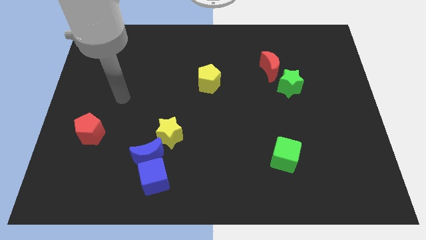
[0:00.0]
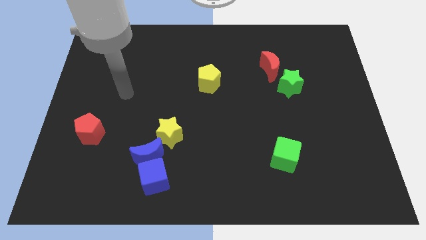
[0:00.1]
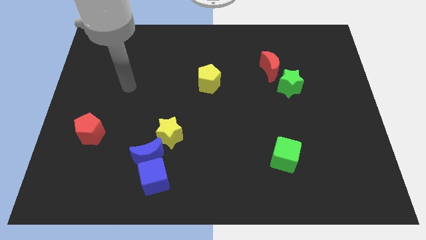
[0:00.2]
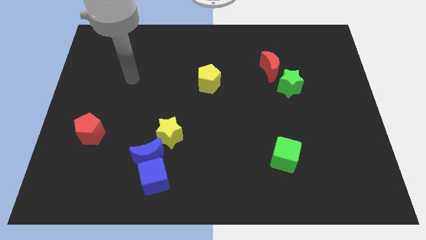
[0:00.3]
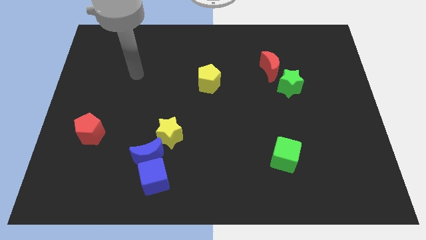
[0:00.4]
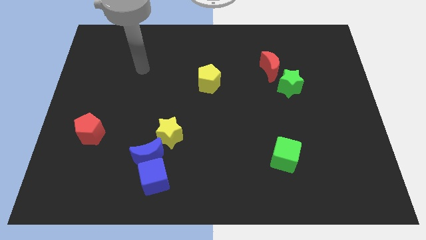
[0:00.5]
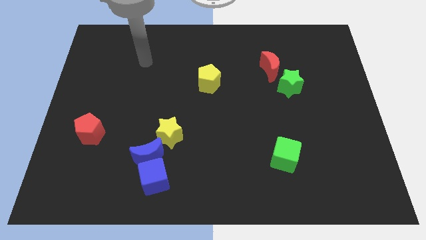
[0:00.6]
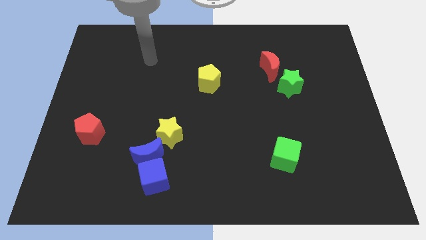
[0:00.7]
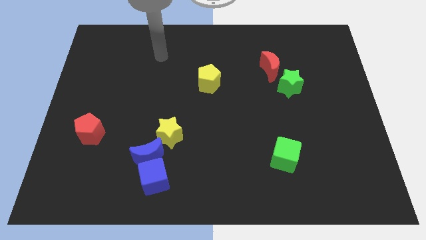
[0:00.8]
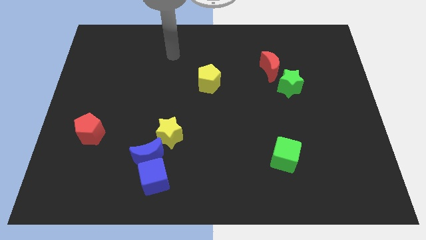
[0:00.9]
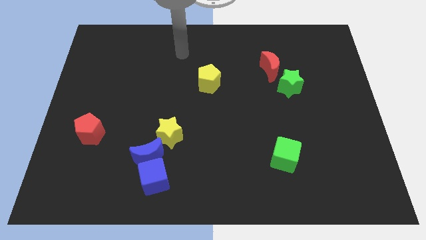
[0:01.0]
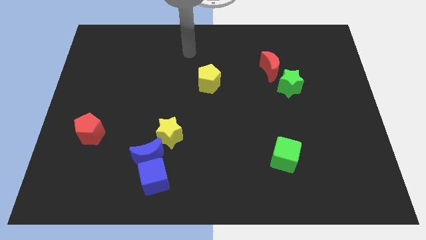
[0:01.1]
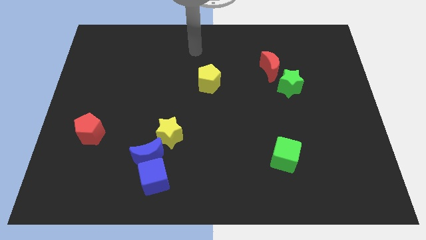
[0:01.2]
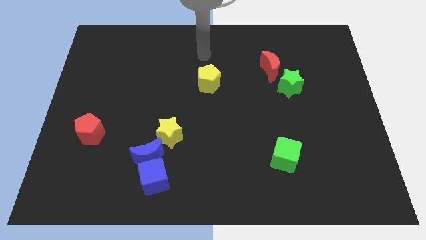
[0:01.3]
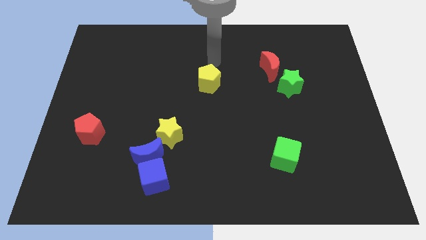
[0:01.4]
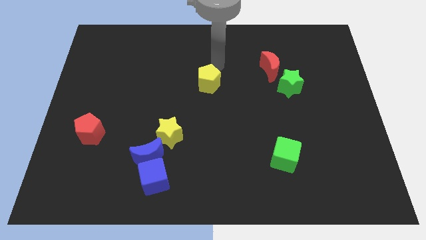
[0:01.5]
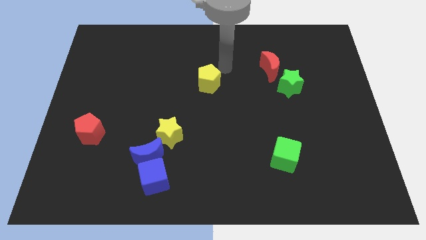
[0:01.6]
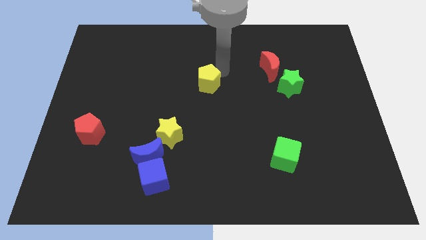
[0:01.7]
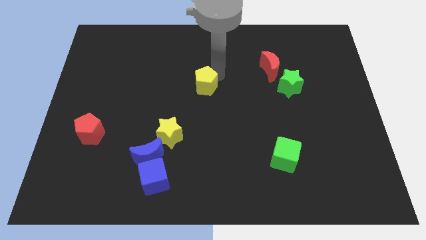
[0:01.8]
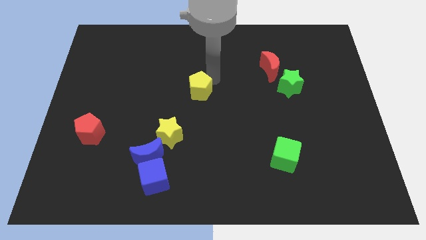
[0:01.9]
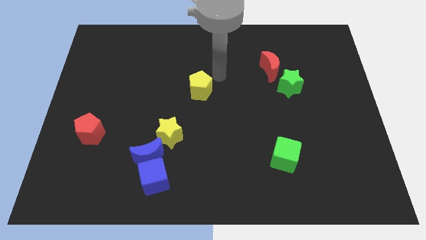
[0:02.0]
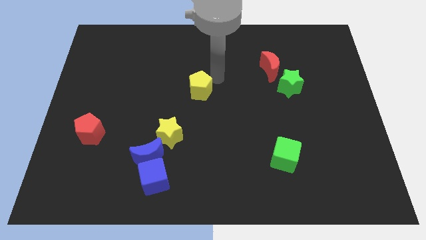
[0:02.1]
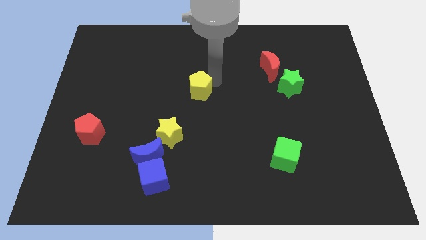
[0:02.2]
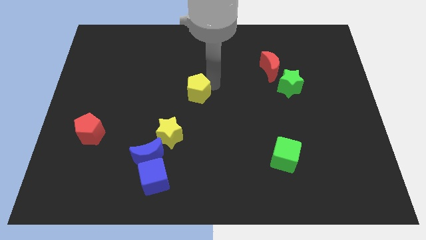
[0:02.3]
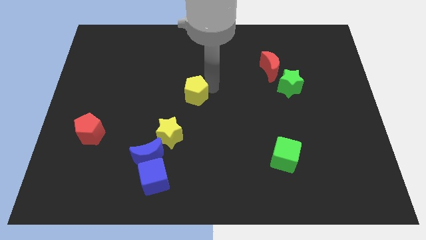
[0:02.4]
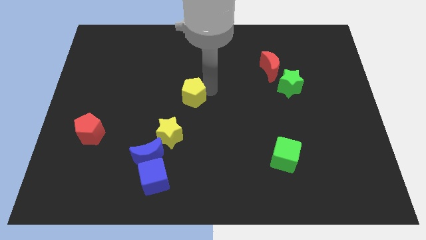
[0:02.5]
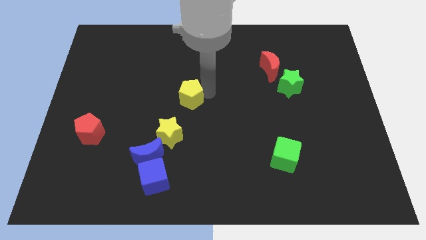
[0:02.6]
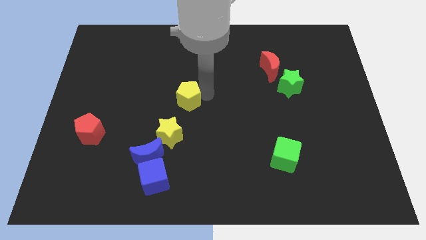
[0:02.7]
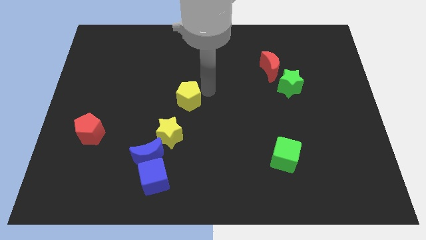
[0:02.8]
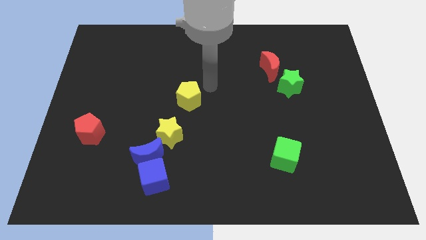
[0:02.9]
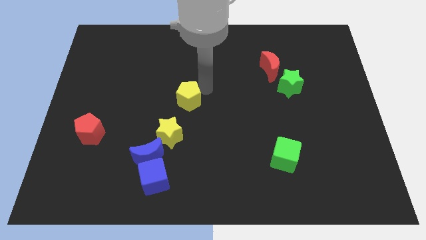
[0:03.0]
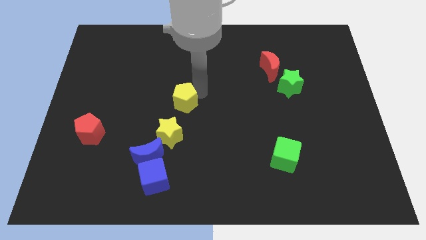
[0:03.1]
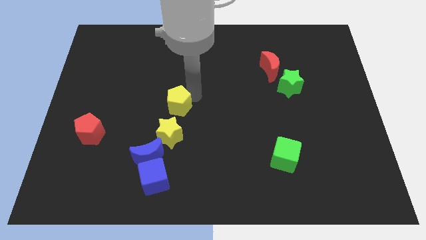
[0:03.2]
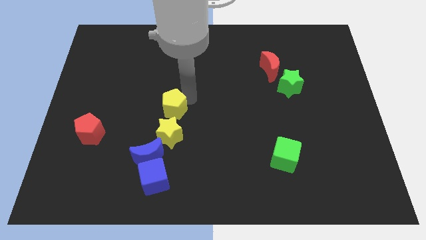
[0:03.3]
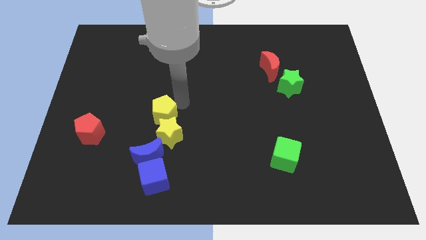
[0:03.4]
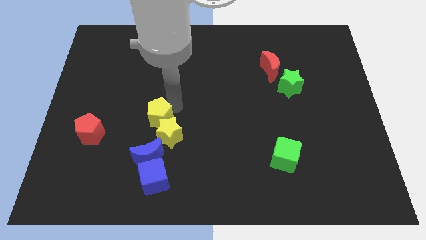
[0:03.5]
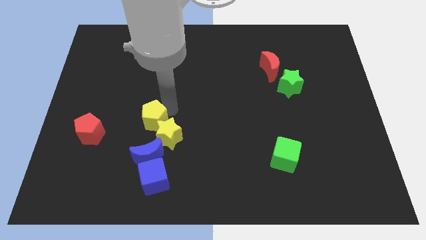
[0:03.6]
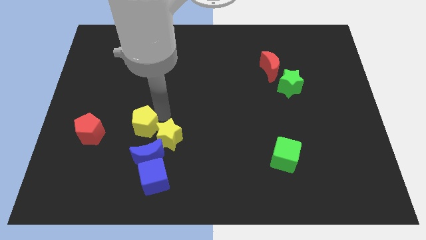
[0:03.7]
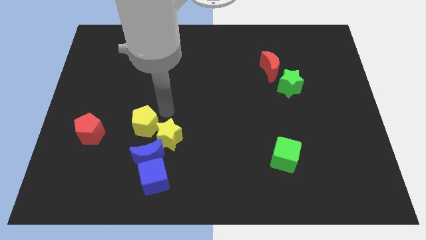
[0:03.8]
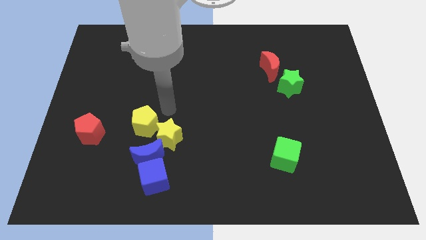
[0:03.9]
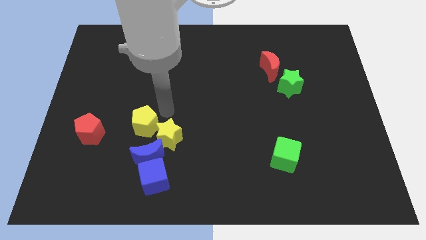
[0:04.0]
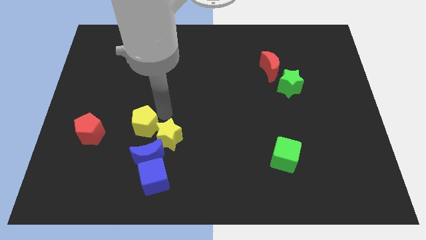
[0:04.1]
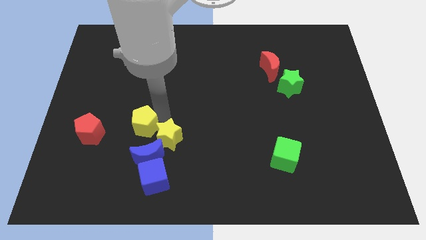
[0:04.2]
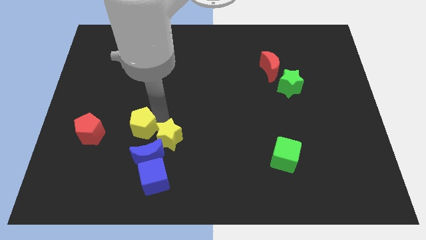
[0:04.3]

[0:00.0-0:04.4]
push the yellow pentagon downwards and left diagonally

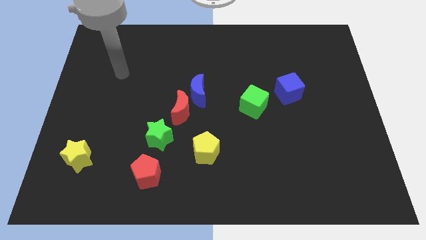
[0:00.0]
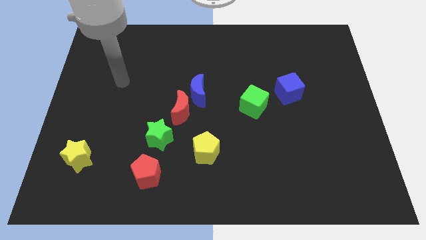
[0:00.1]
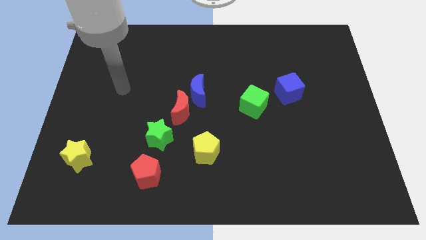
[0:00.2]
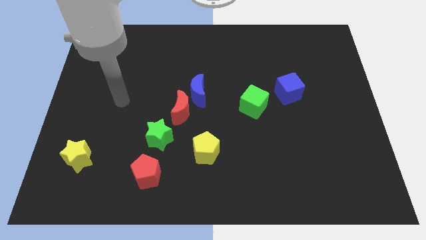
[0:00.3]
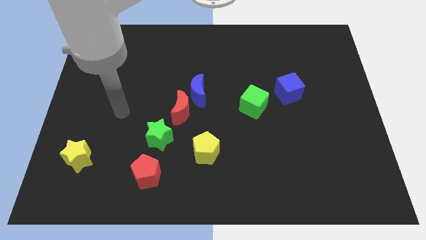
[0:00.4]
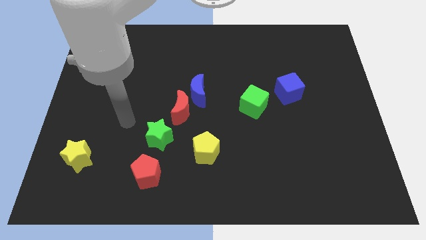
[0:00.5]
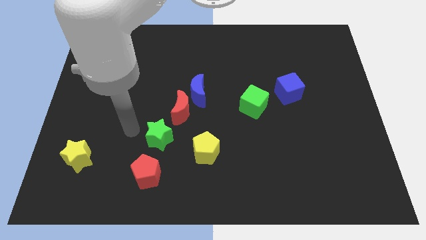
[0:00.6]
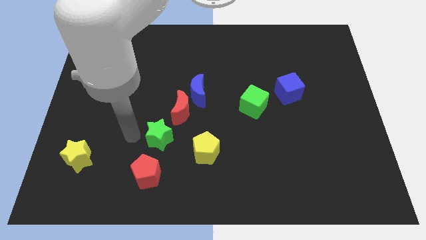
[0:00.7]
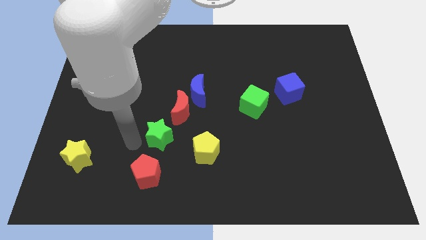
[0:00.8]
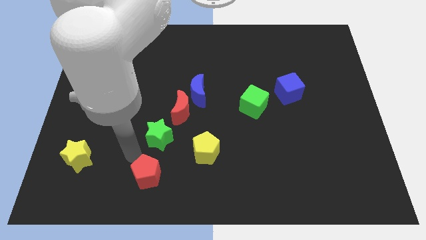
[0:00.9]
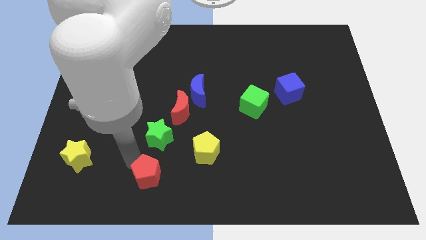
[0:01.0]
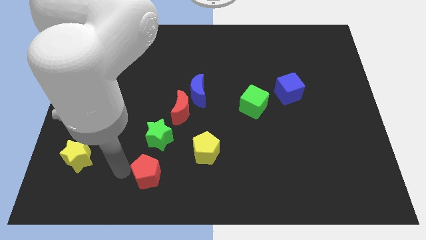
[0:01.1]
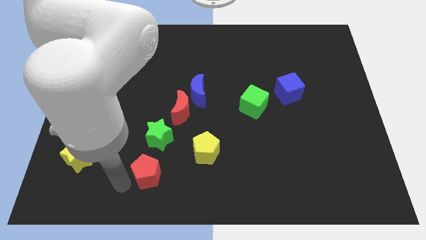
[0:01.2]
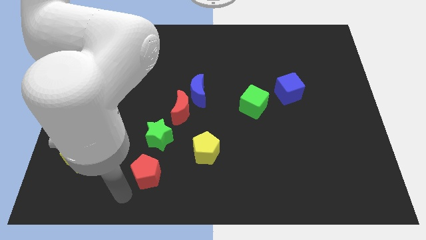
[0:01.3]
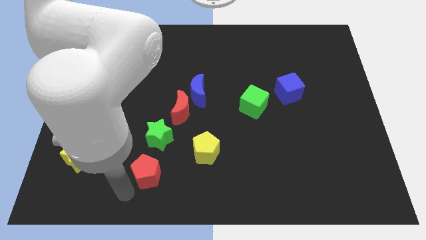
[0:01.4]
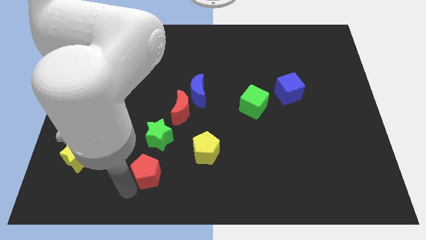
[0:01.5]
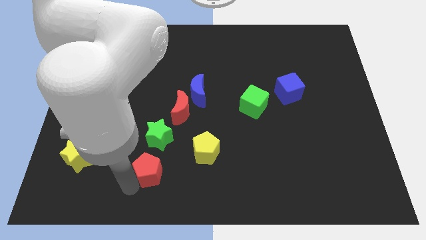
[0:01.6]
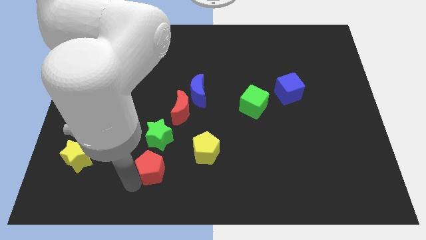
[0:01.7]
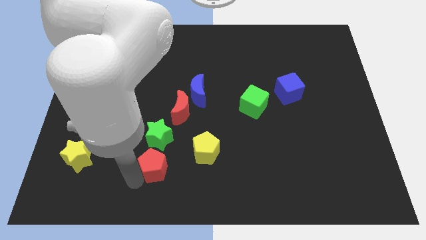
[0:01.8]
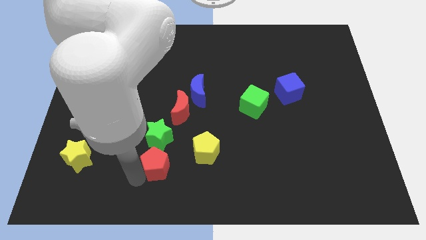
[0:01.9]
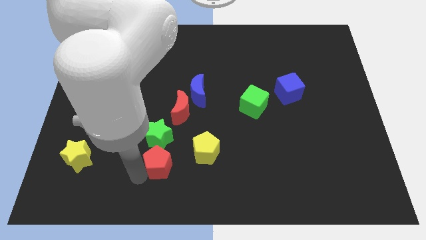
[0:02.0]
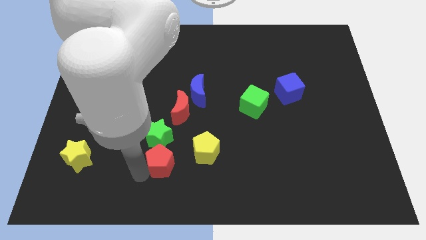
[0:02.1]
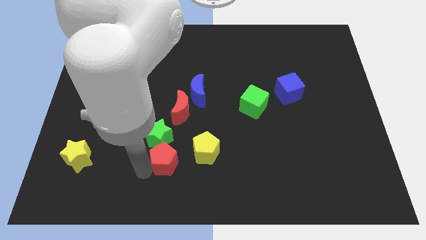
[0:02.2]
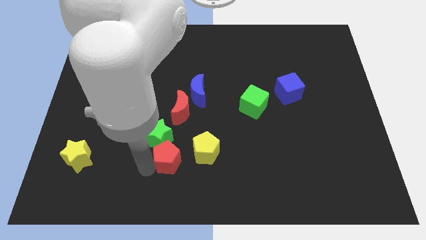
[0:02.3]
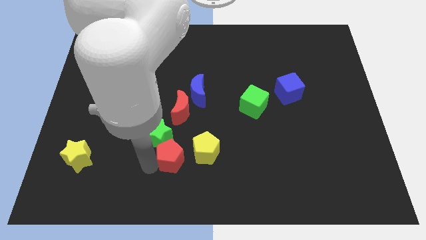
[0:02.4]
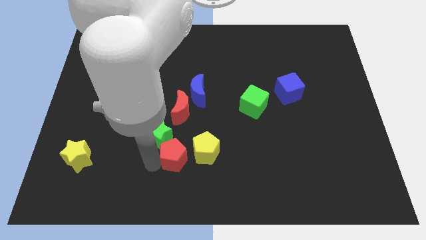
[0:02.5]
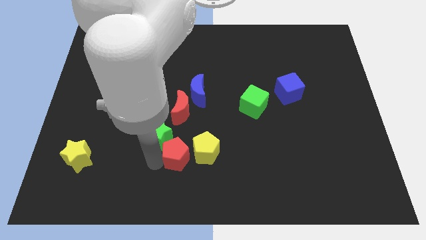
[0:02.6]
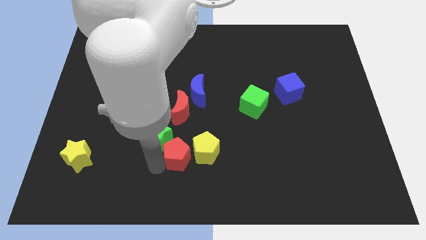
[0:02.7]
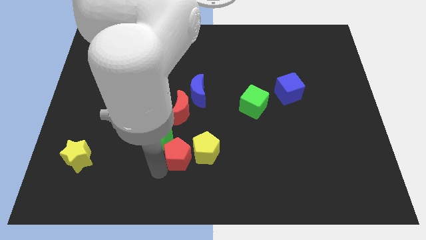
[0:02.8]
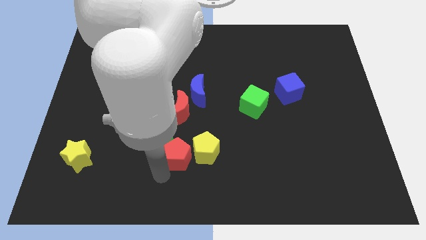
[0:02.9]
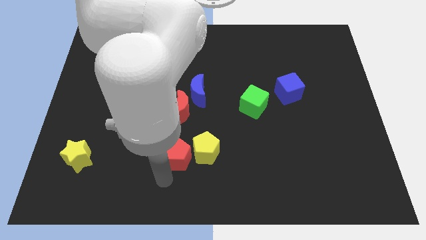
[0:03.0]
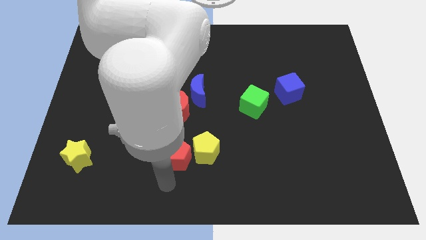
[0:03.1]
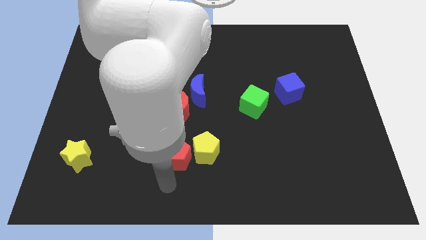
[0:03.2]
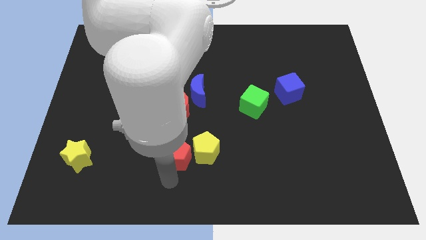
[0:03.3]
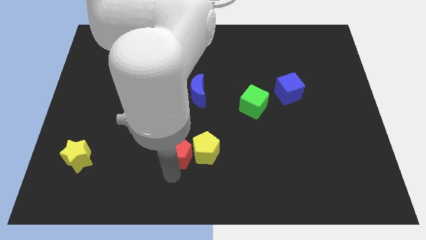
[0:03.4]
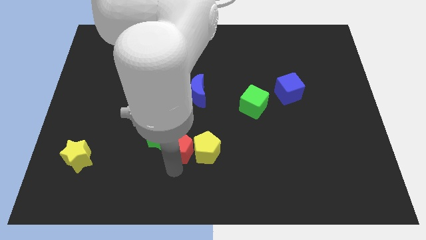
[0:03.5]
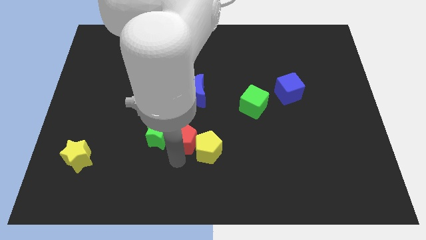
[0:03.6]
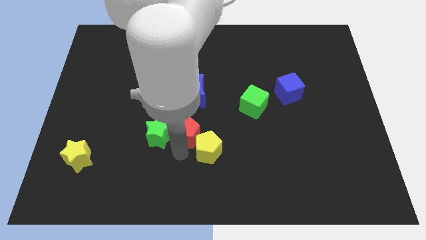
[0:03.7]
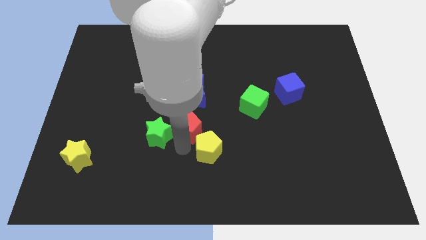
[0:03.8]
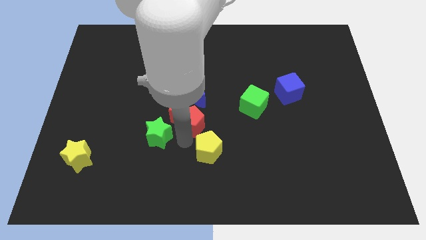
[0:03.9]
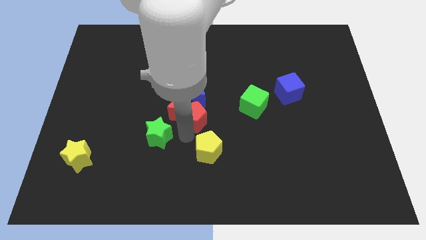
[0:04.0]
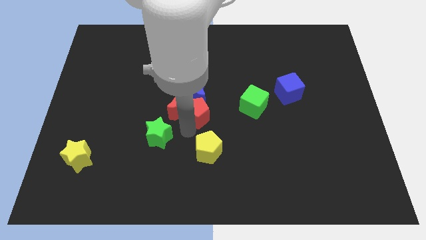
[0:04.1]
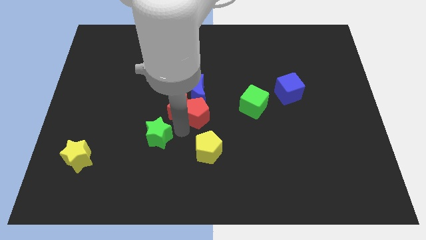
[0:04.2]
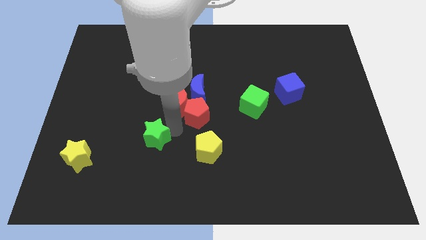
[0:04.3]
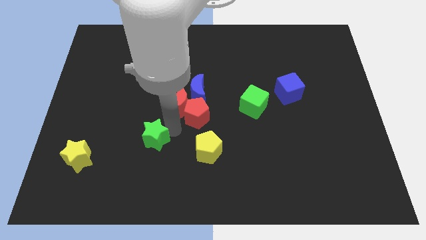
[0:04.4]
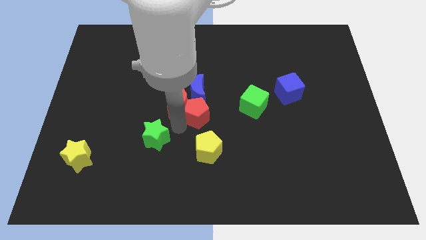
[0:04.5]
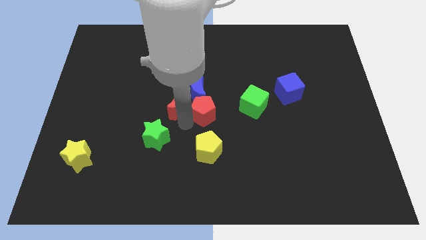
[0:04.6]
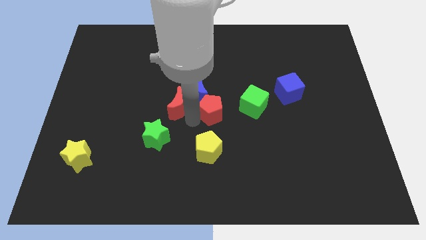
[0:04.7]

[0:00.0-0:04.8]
slide the red pentagon upwards and right diagonally
